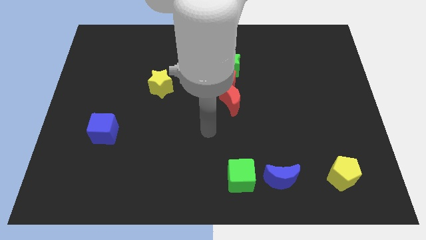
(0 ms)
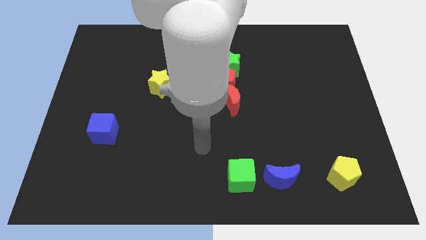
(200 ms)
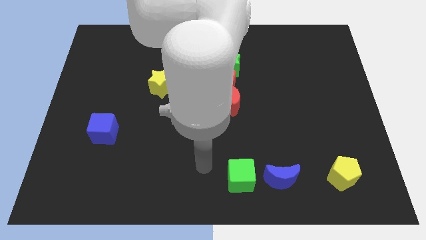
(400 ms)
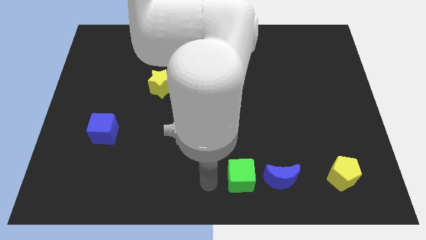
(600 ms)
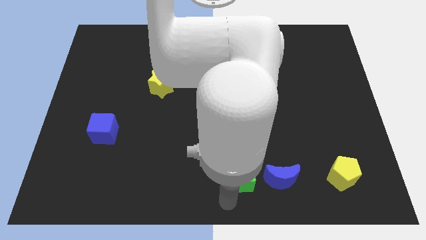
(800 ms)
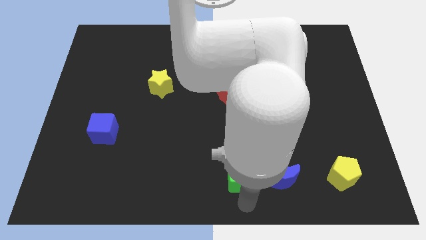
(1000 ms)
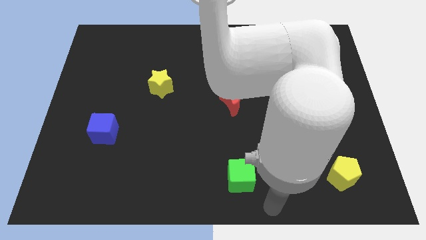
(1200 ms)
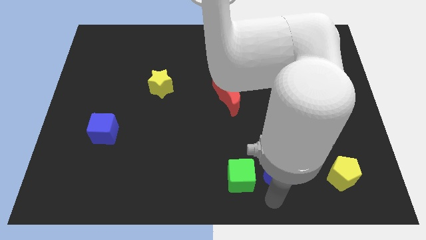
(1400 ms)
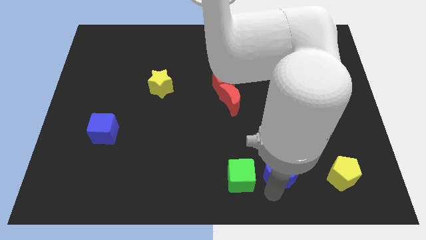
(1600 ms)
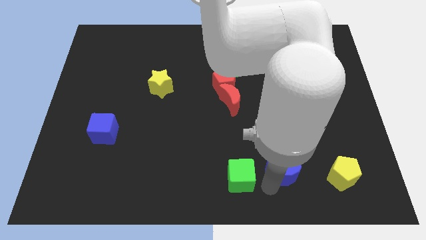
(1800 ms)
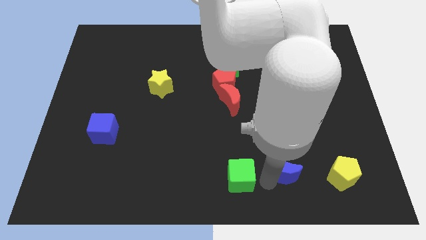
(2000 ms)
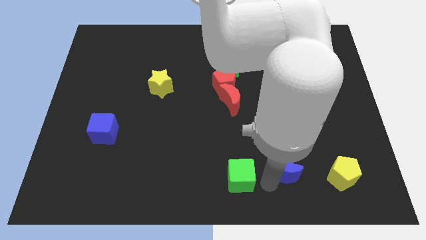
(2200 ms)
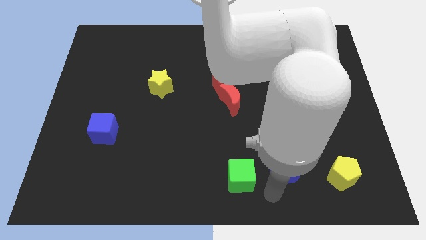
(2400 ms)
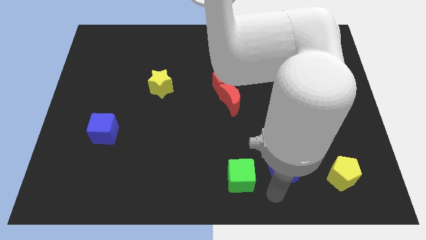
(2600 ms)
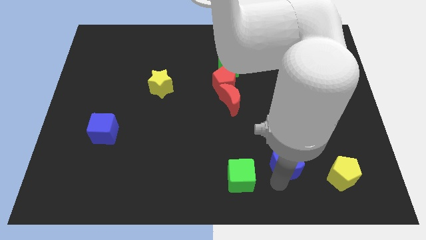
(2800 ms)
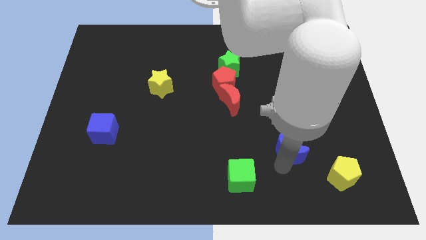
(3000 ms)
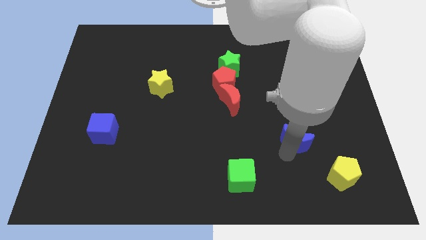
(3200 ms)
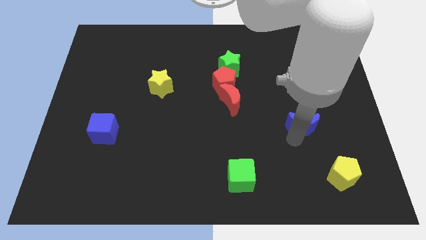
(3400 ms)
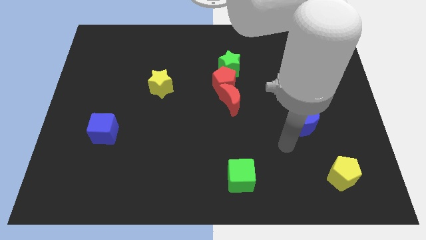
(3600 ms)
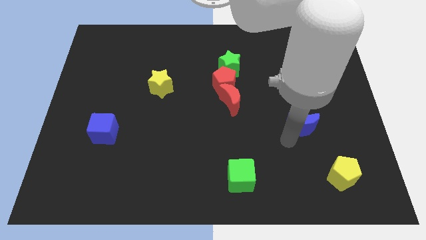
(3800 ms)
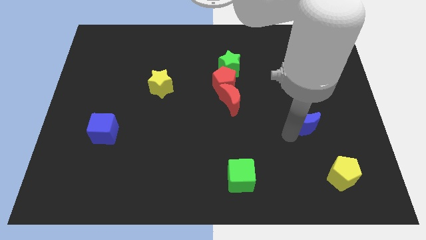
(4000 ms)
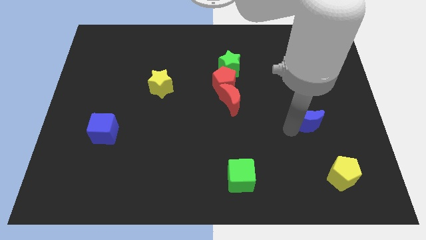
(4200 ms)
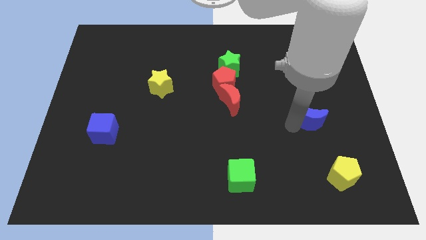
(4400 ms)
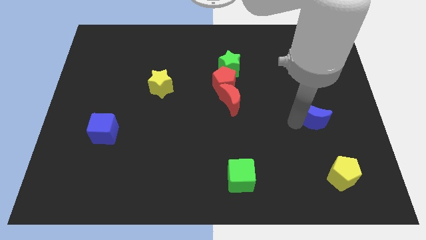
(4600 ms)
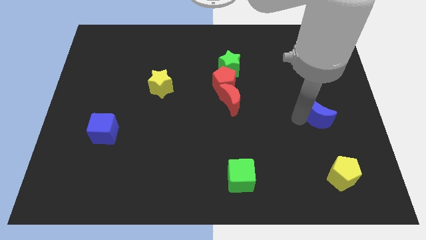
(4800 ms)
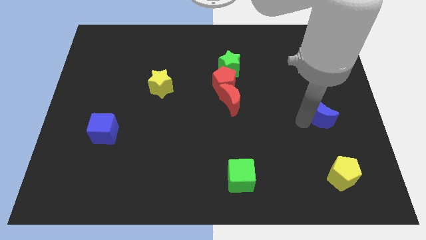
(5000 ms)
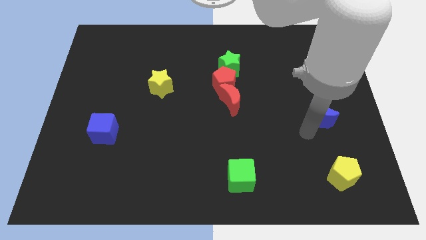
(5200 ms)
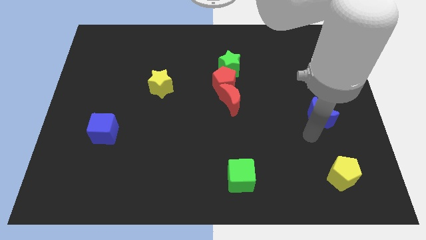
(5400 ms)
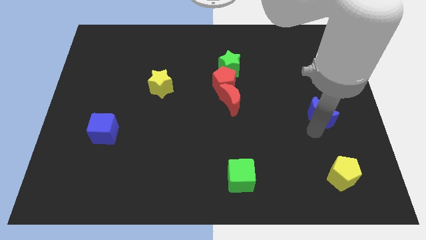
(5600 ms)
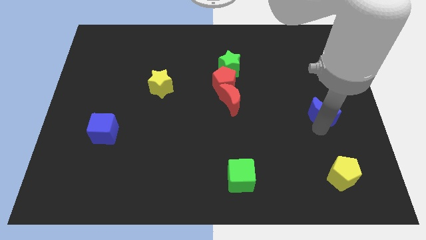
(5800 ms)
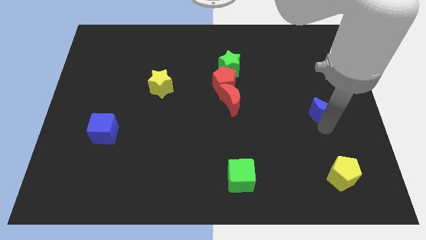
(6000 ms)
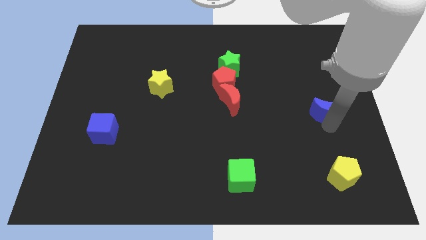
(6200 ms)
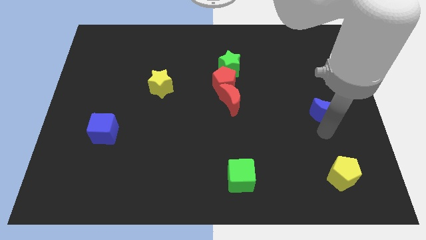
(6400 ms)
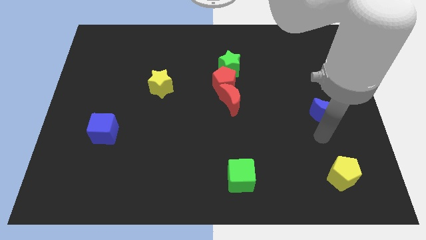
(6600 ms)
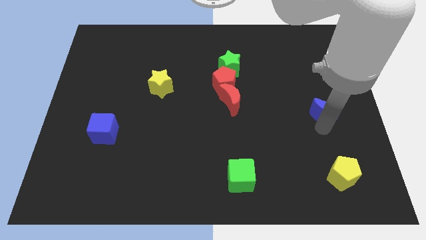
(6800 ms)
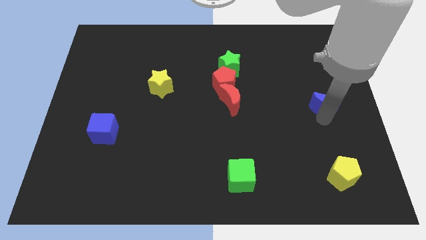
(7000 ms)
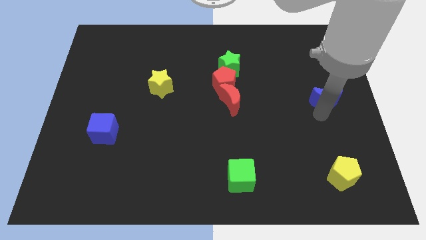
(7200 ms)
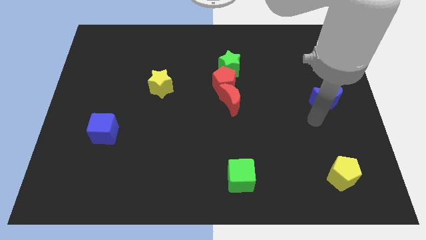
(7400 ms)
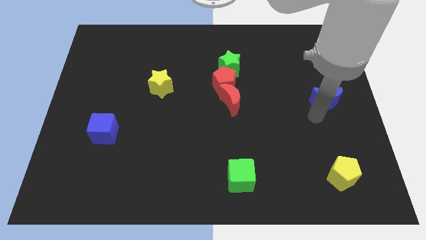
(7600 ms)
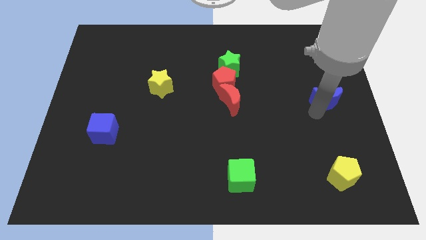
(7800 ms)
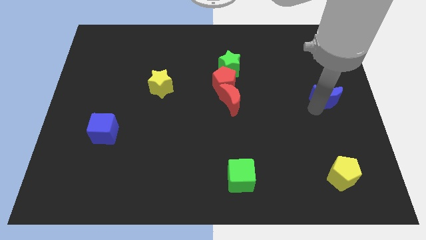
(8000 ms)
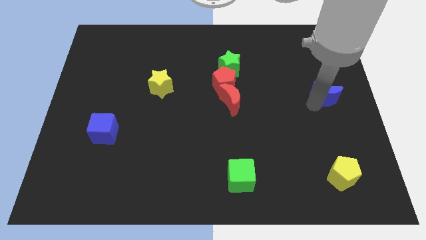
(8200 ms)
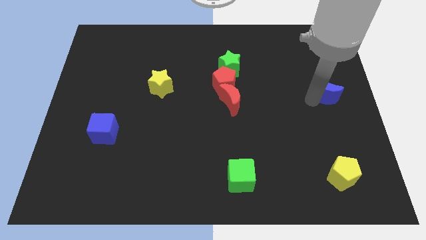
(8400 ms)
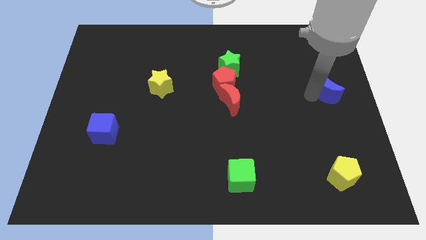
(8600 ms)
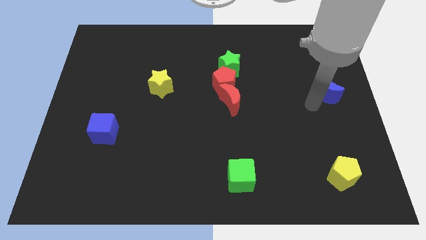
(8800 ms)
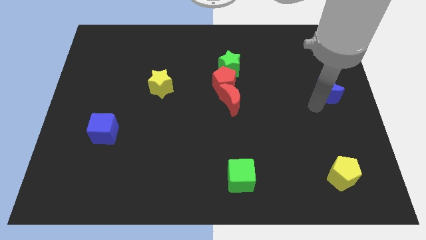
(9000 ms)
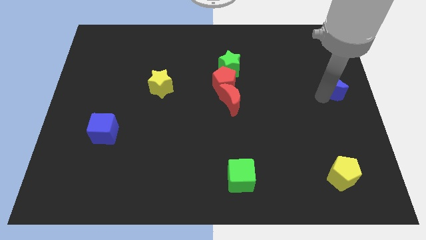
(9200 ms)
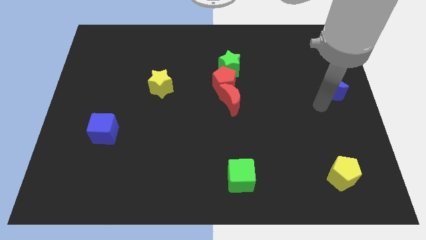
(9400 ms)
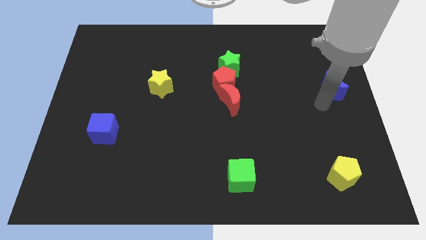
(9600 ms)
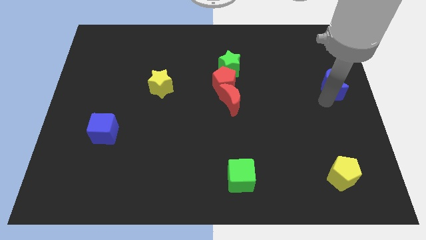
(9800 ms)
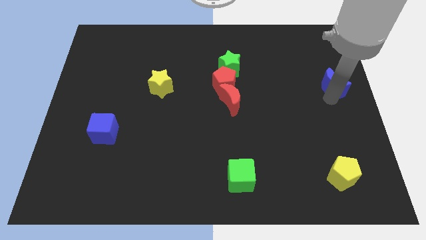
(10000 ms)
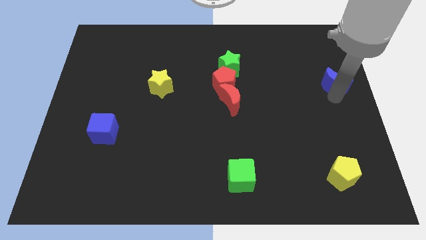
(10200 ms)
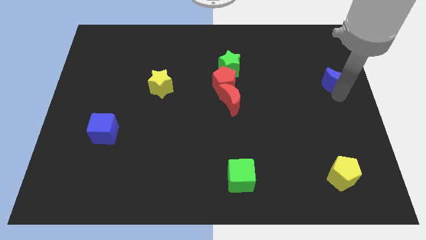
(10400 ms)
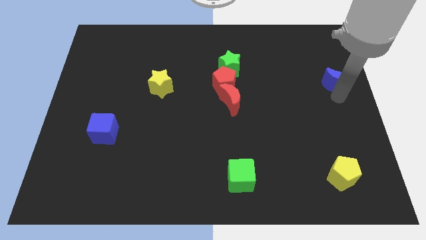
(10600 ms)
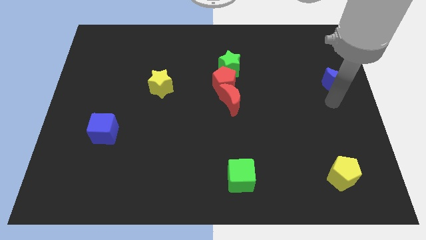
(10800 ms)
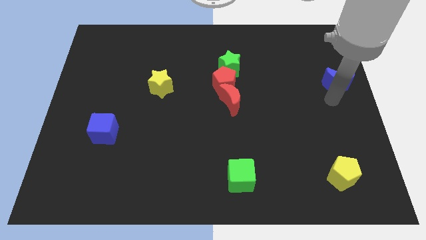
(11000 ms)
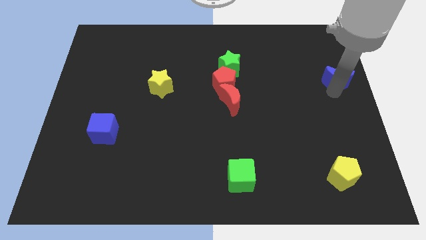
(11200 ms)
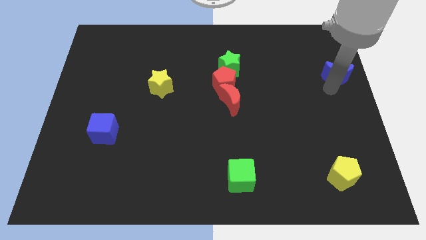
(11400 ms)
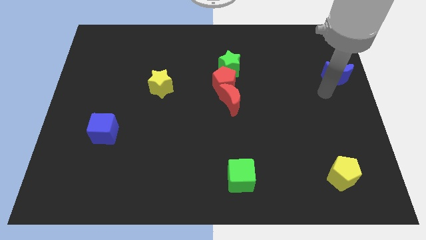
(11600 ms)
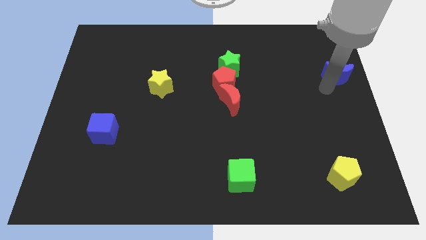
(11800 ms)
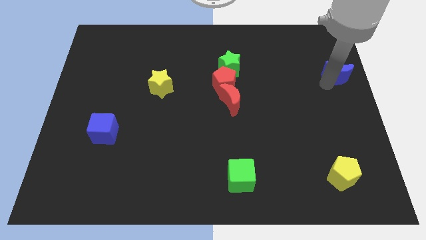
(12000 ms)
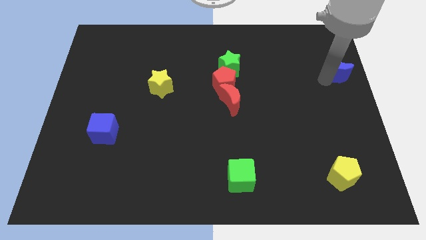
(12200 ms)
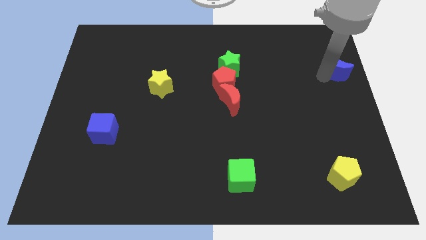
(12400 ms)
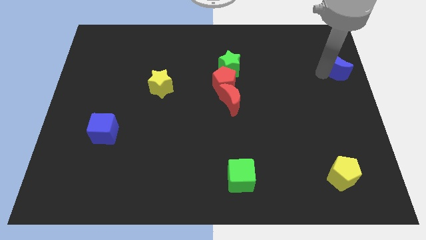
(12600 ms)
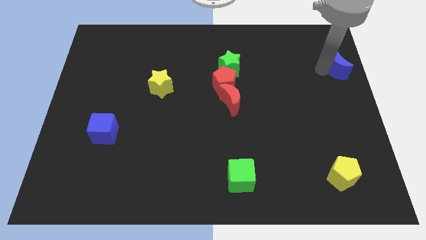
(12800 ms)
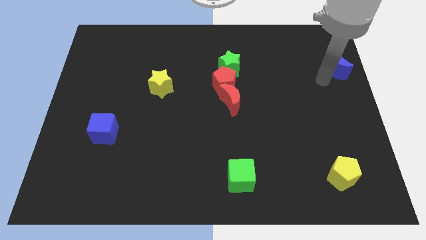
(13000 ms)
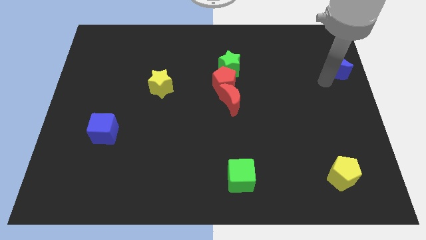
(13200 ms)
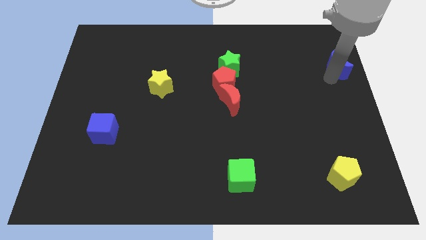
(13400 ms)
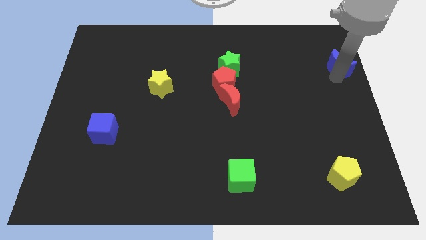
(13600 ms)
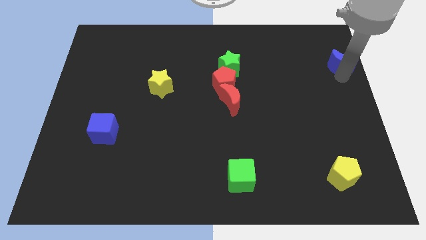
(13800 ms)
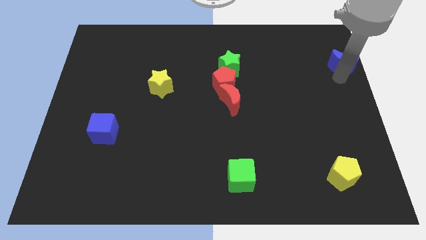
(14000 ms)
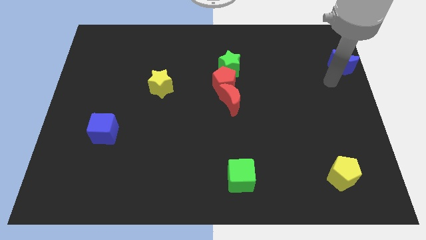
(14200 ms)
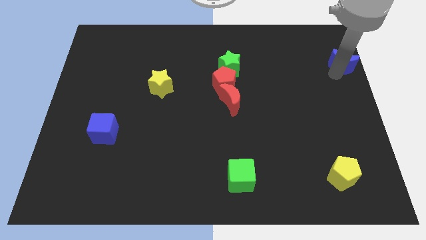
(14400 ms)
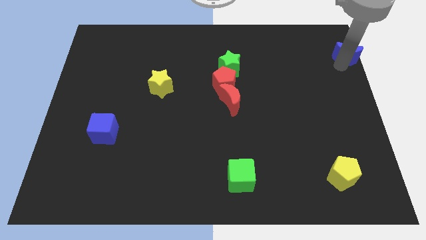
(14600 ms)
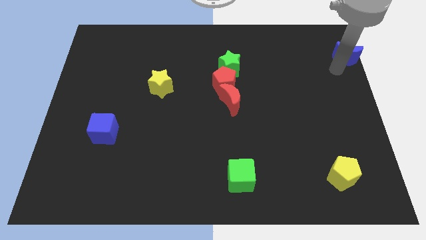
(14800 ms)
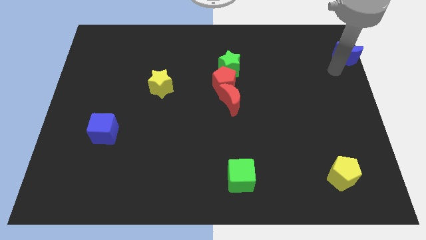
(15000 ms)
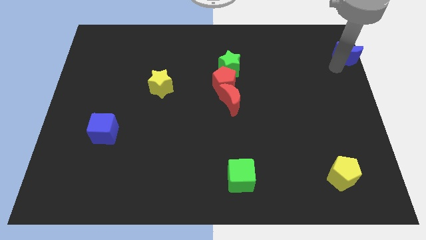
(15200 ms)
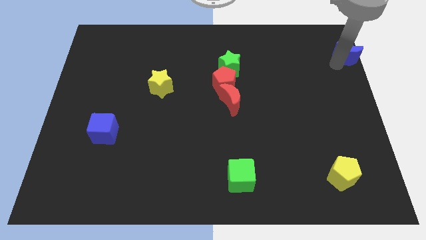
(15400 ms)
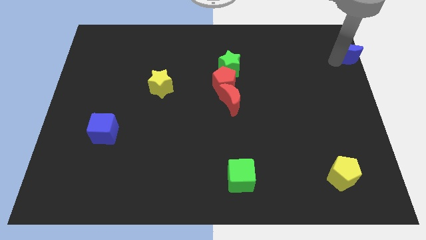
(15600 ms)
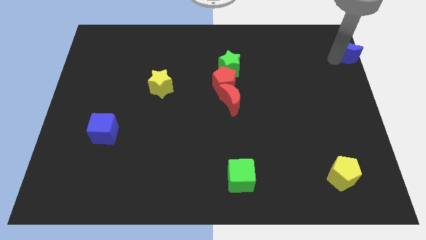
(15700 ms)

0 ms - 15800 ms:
put the blue moon to the top right of the board

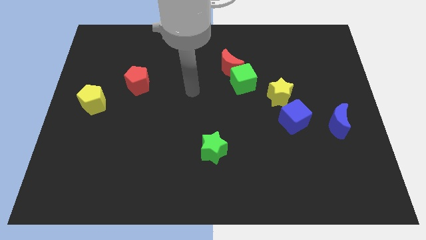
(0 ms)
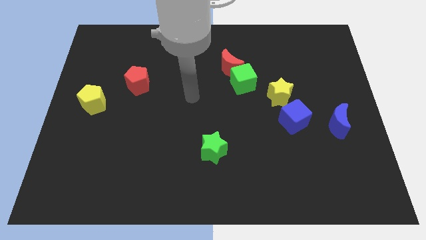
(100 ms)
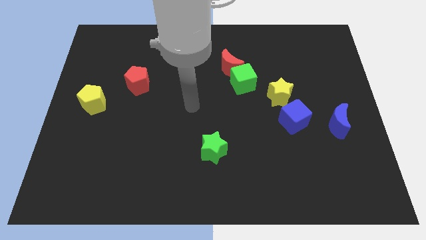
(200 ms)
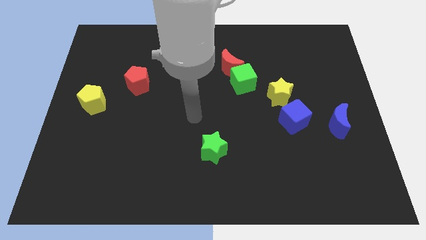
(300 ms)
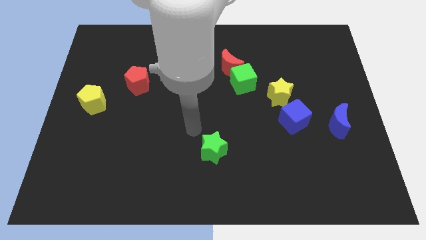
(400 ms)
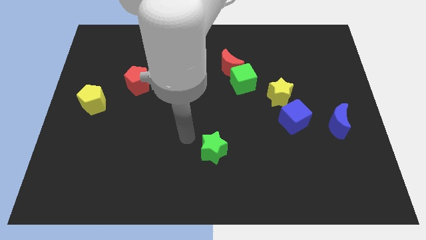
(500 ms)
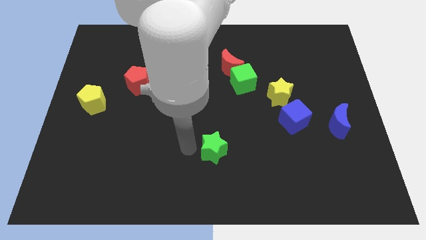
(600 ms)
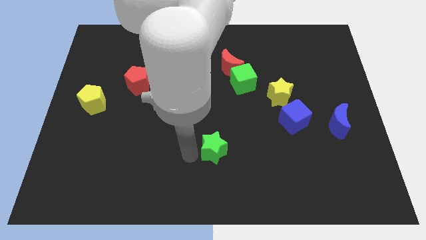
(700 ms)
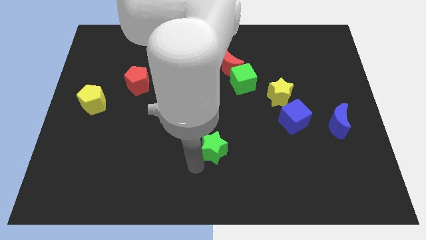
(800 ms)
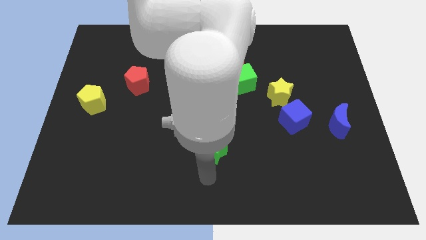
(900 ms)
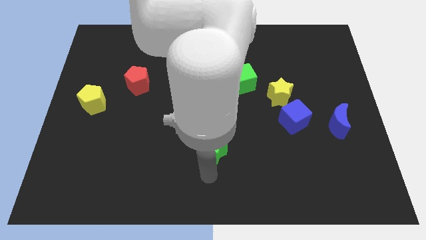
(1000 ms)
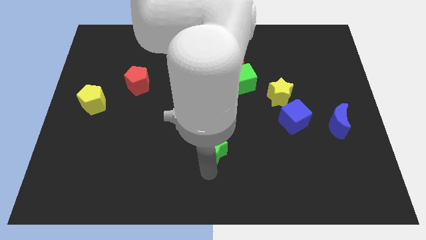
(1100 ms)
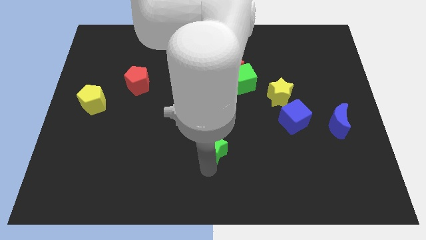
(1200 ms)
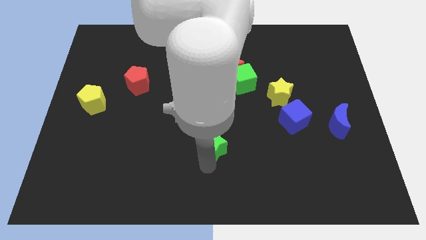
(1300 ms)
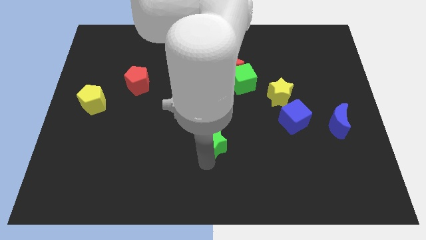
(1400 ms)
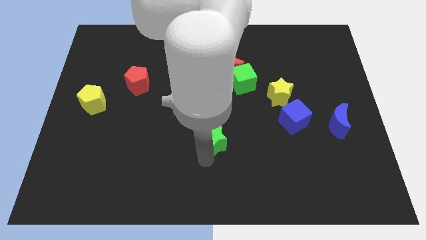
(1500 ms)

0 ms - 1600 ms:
push the green star to the middle
